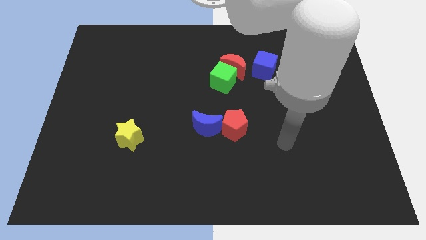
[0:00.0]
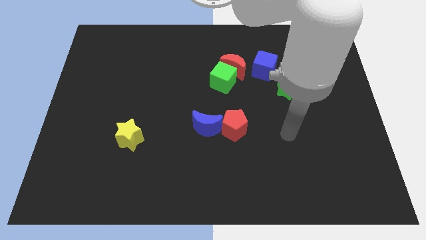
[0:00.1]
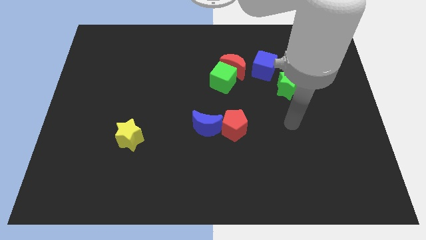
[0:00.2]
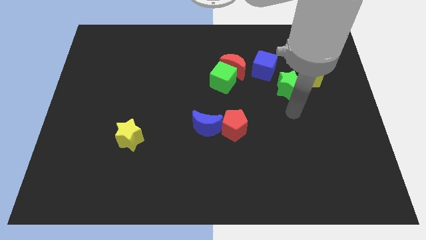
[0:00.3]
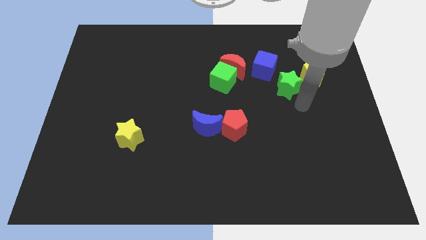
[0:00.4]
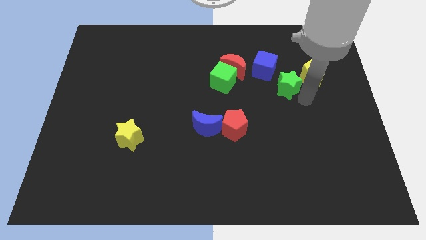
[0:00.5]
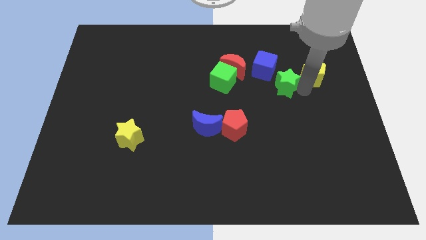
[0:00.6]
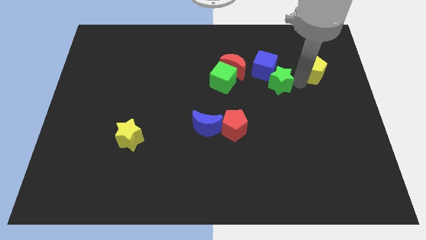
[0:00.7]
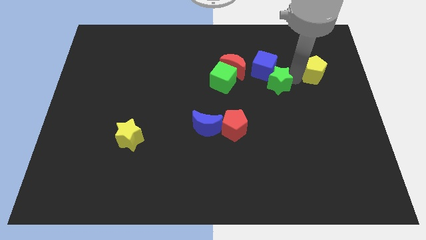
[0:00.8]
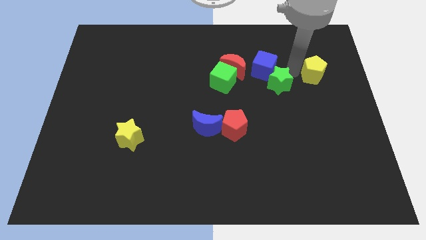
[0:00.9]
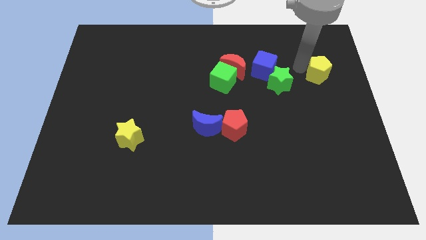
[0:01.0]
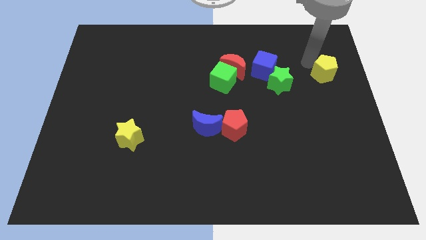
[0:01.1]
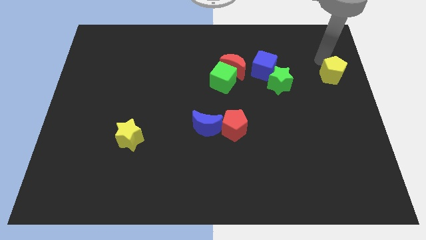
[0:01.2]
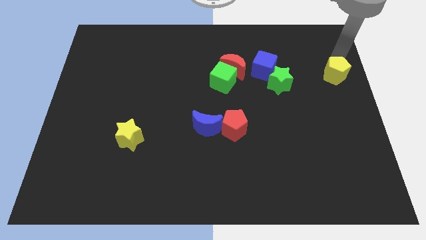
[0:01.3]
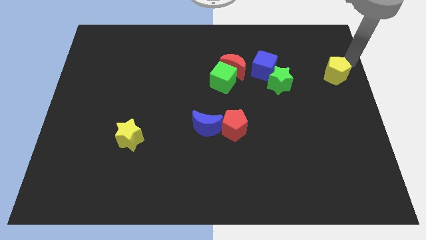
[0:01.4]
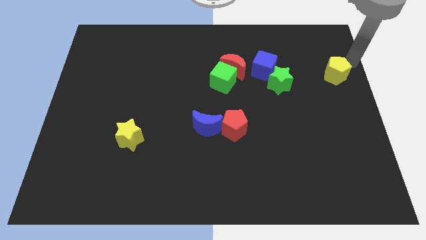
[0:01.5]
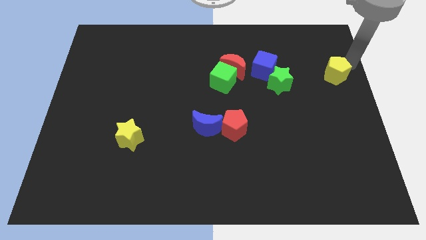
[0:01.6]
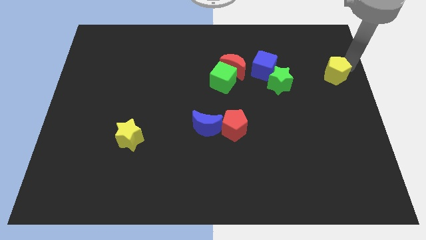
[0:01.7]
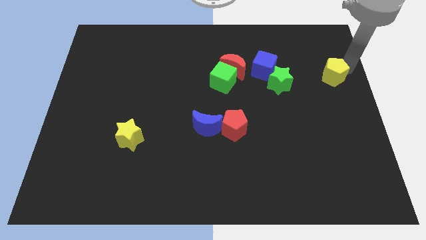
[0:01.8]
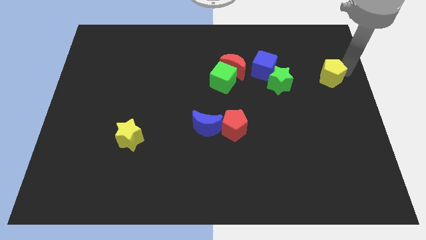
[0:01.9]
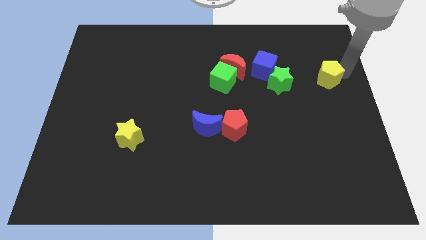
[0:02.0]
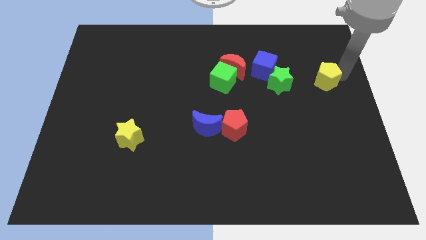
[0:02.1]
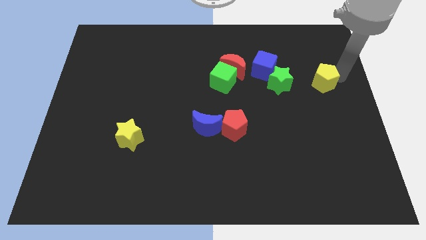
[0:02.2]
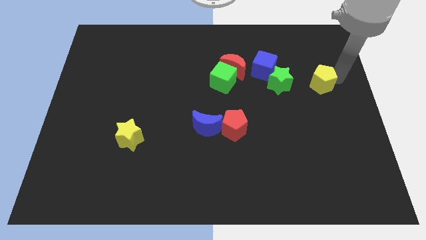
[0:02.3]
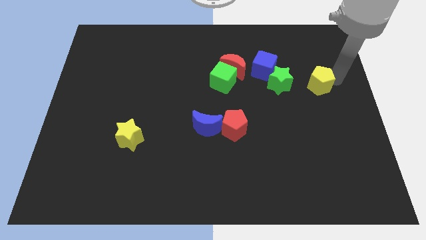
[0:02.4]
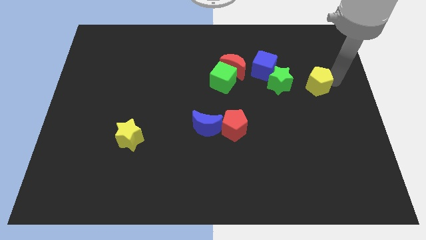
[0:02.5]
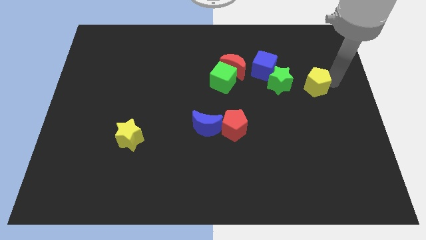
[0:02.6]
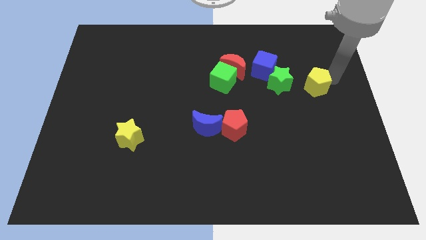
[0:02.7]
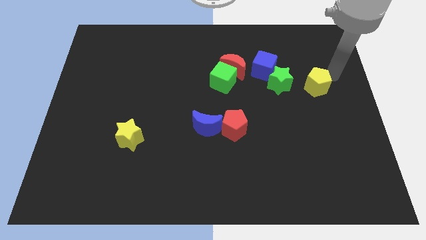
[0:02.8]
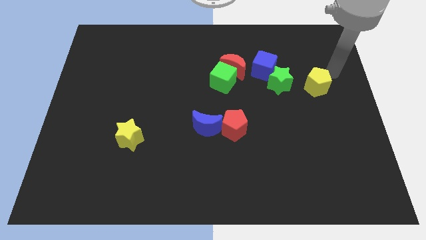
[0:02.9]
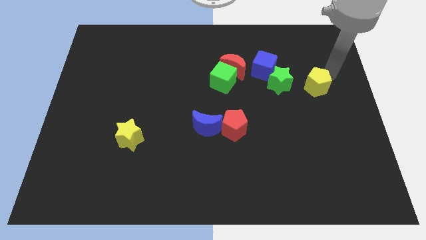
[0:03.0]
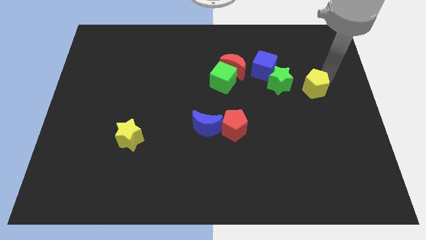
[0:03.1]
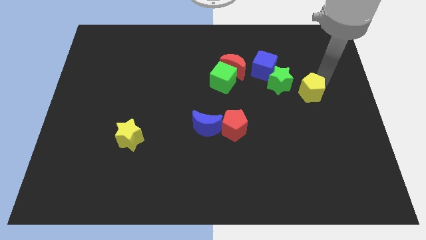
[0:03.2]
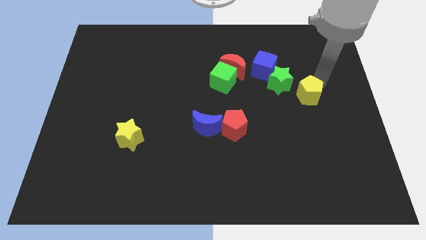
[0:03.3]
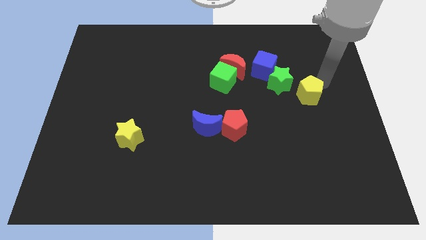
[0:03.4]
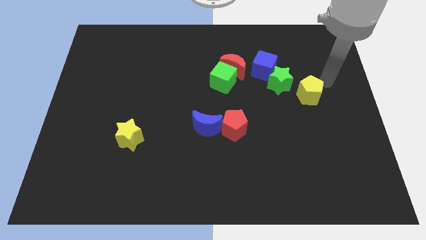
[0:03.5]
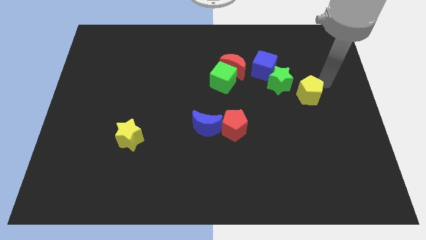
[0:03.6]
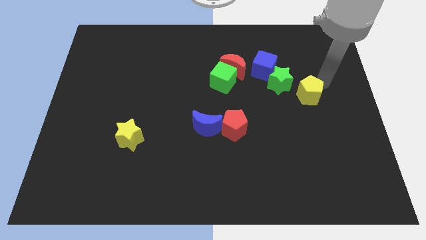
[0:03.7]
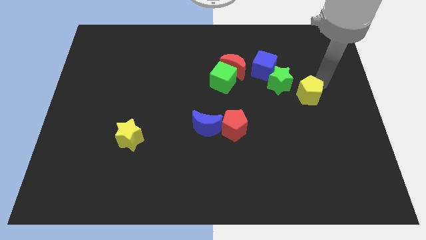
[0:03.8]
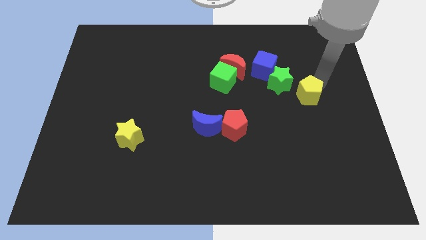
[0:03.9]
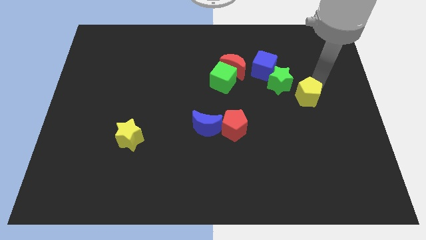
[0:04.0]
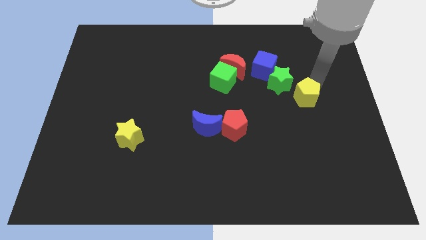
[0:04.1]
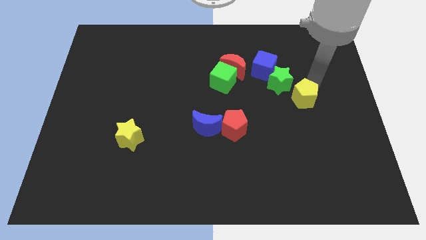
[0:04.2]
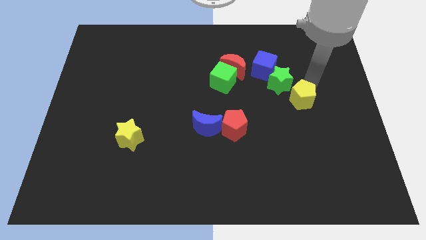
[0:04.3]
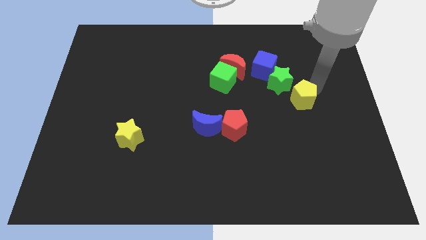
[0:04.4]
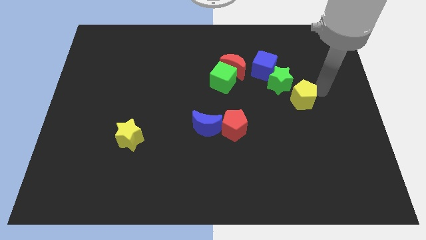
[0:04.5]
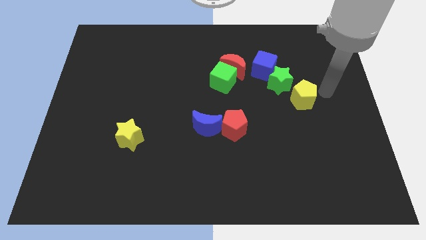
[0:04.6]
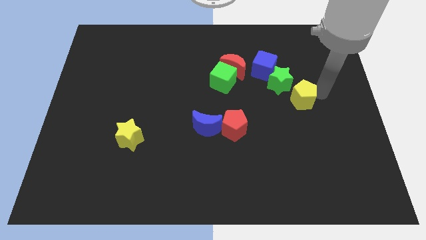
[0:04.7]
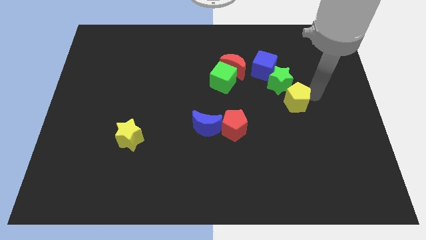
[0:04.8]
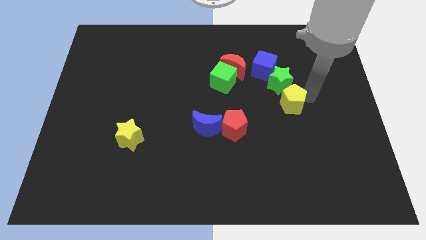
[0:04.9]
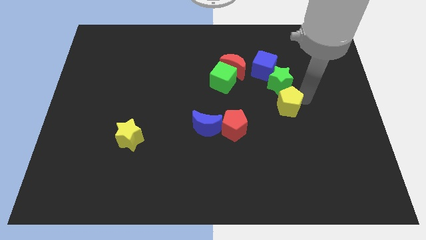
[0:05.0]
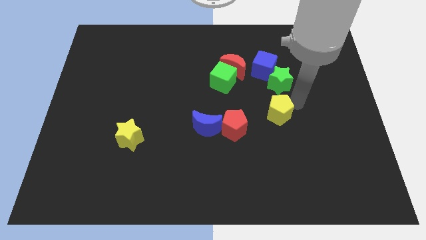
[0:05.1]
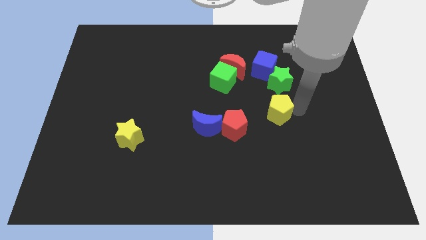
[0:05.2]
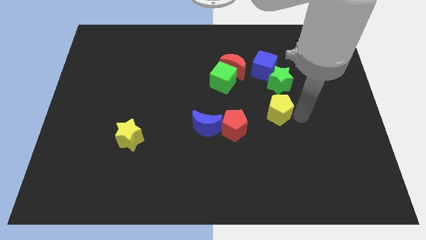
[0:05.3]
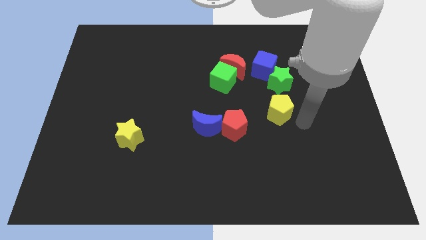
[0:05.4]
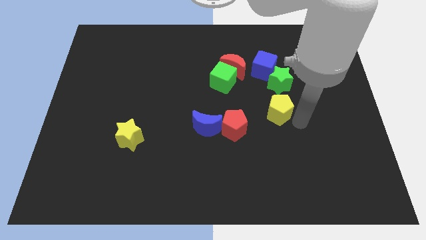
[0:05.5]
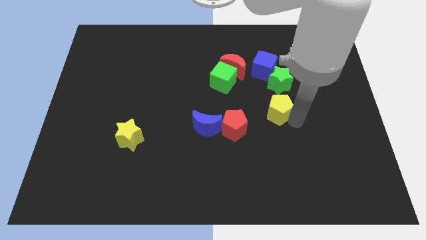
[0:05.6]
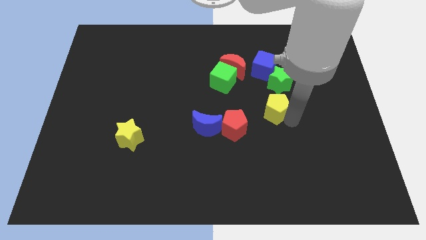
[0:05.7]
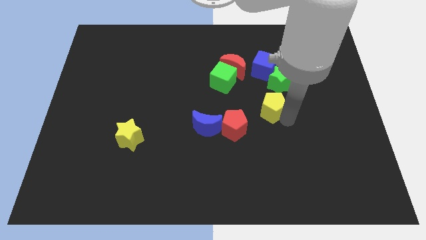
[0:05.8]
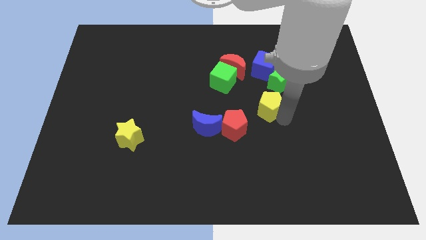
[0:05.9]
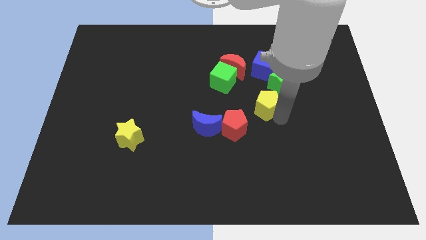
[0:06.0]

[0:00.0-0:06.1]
slide the yellow pentagon to the bottom right of the green cube

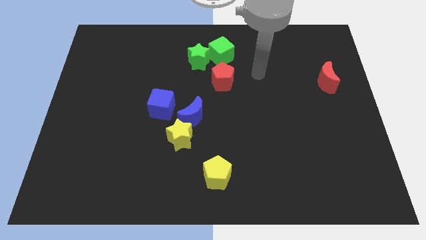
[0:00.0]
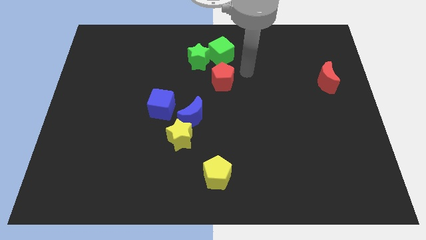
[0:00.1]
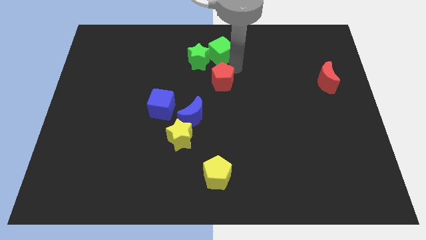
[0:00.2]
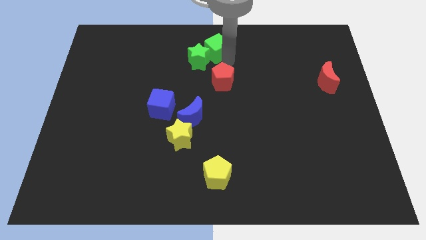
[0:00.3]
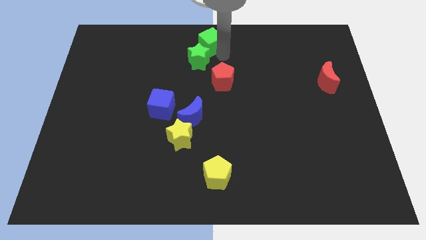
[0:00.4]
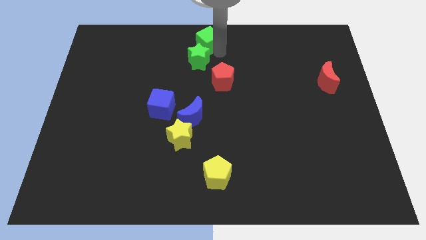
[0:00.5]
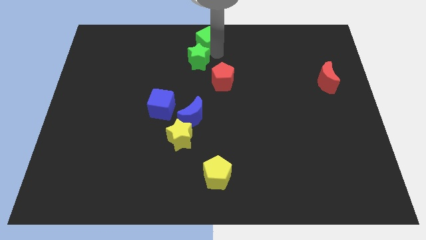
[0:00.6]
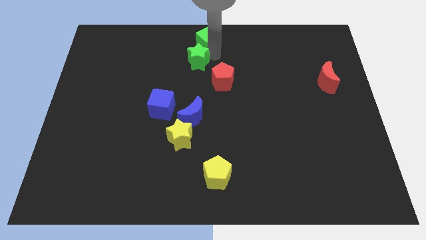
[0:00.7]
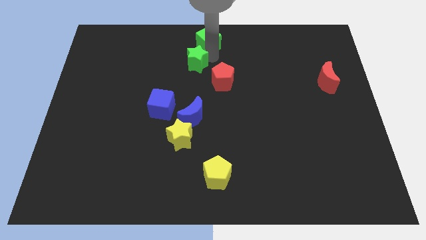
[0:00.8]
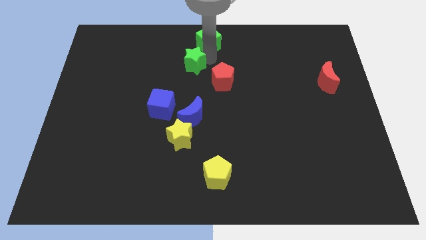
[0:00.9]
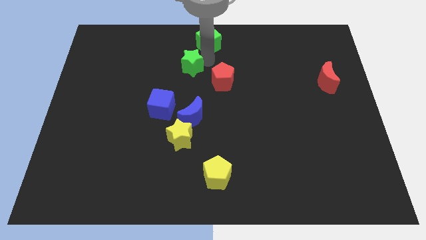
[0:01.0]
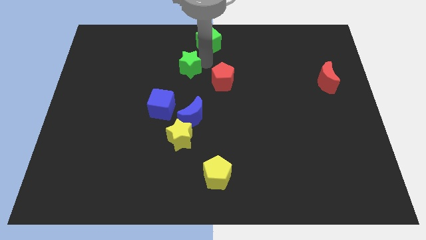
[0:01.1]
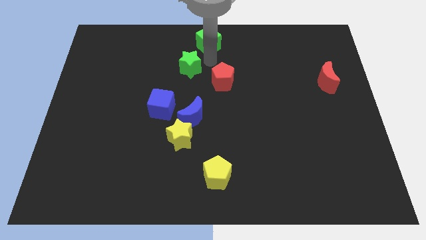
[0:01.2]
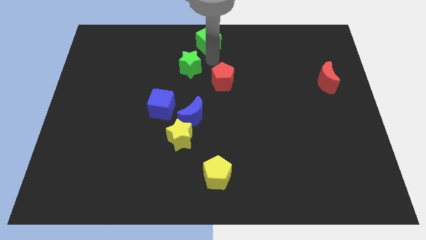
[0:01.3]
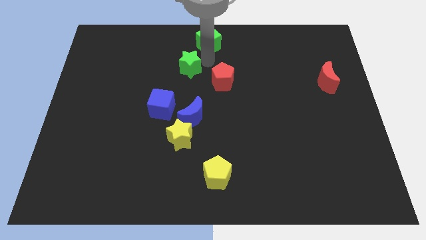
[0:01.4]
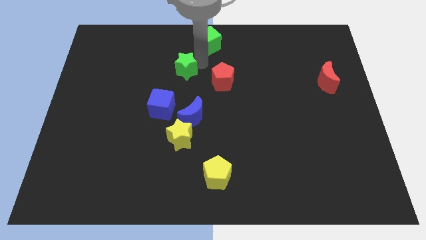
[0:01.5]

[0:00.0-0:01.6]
slide the green star above the blue cube
